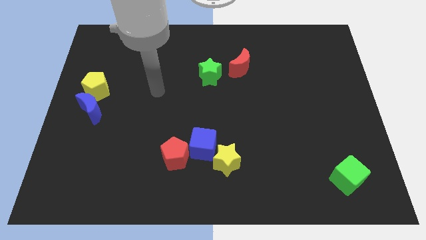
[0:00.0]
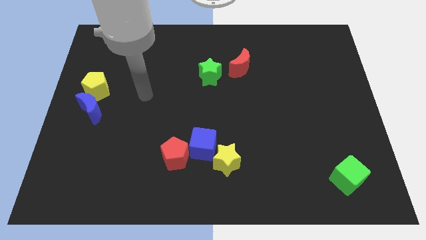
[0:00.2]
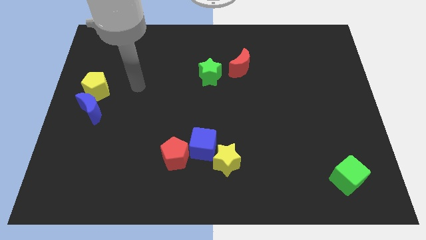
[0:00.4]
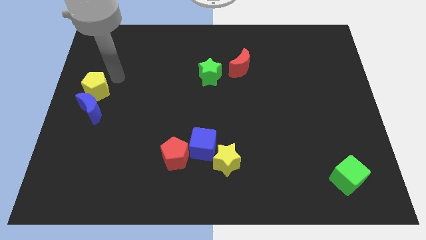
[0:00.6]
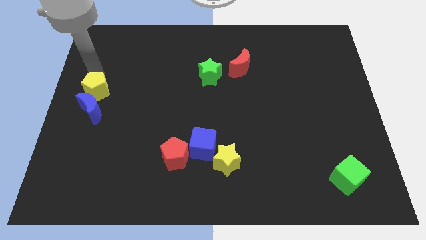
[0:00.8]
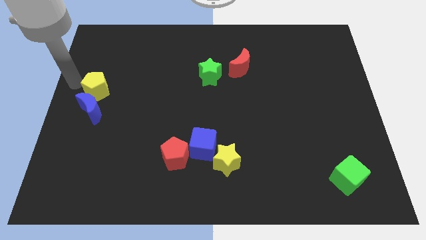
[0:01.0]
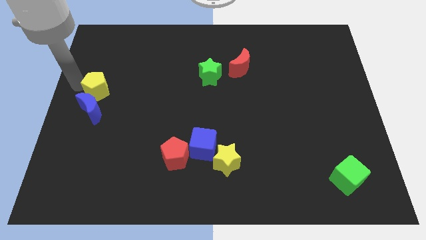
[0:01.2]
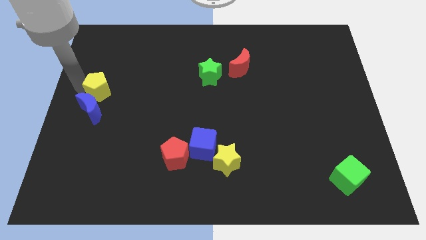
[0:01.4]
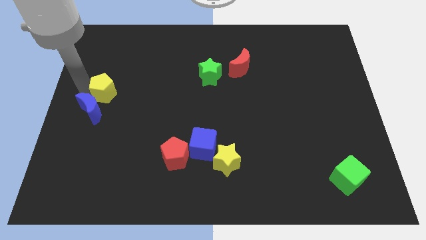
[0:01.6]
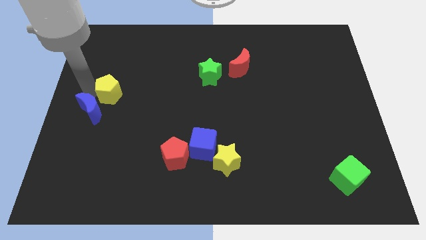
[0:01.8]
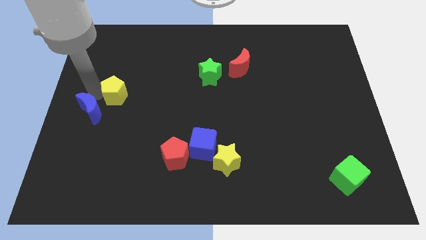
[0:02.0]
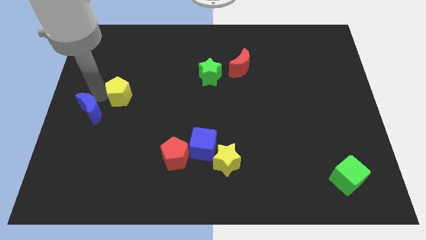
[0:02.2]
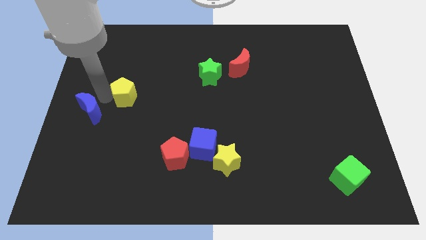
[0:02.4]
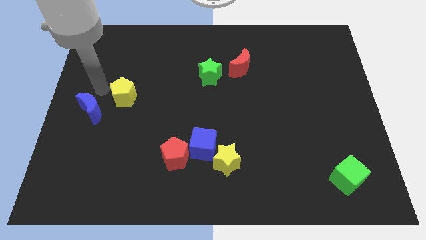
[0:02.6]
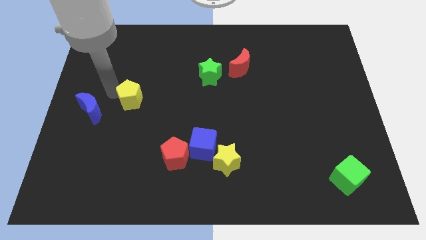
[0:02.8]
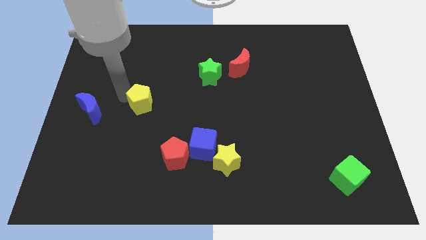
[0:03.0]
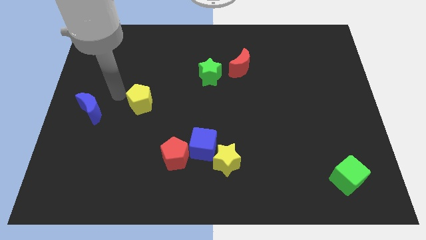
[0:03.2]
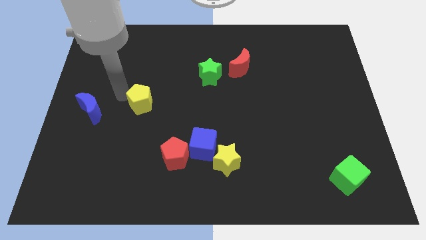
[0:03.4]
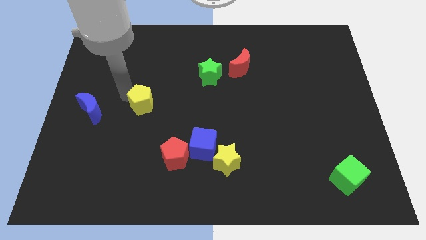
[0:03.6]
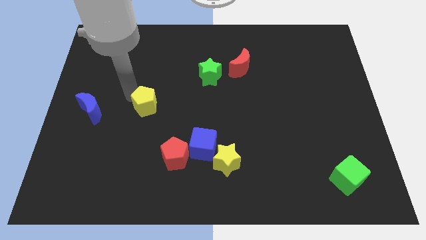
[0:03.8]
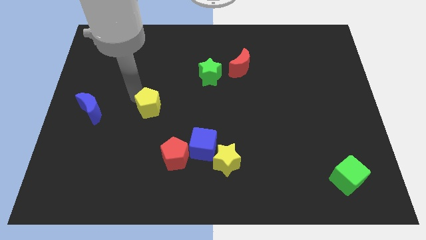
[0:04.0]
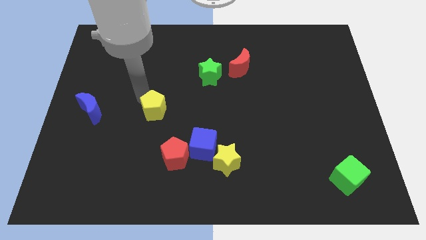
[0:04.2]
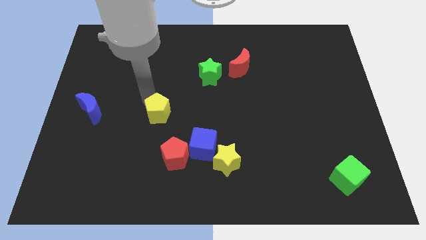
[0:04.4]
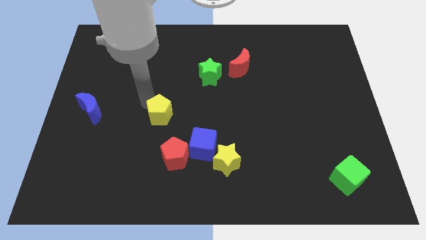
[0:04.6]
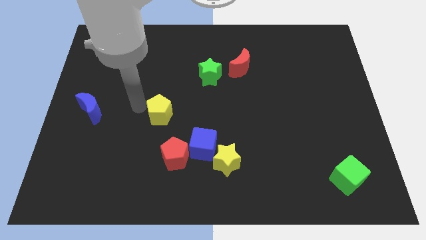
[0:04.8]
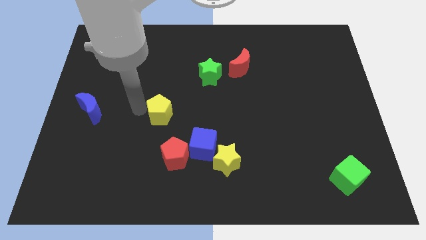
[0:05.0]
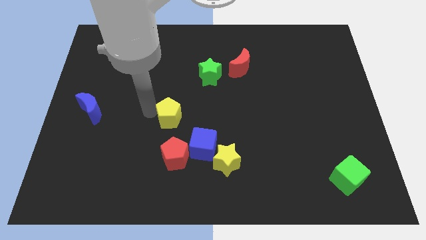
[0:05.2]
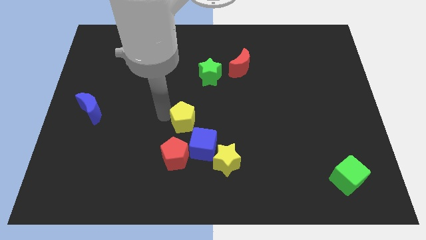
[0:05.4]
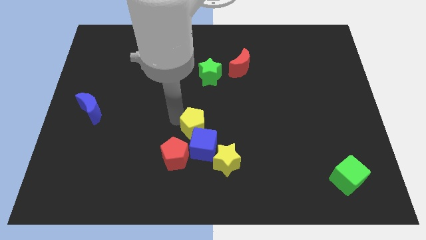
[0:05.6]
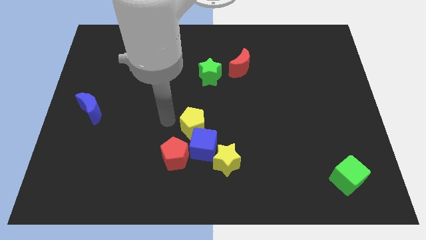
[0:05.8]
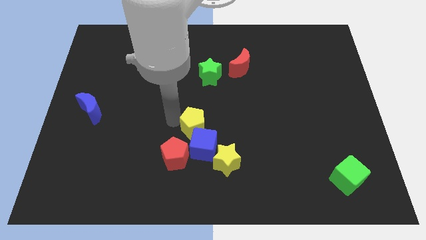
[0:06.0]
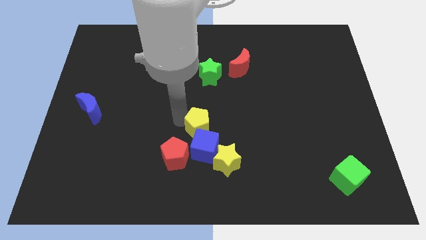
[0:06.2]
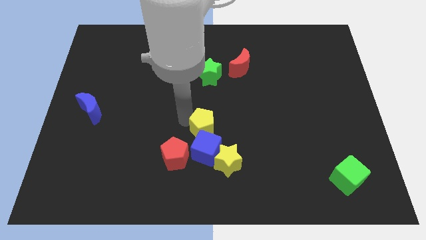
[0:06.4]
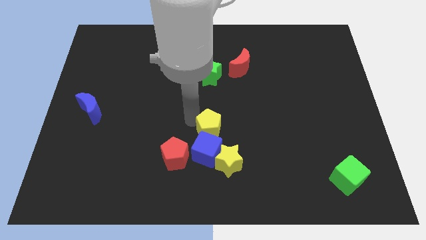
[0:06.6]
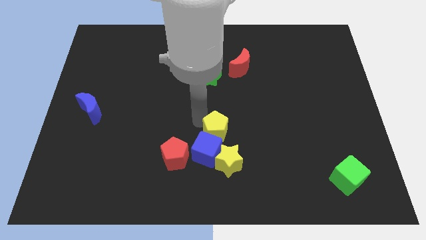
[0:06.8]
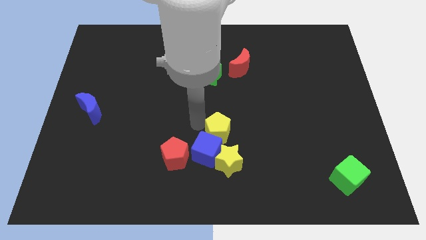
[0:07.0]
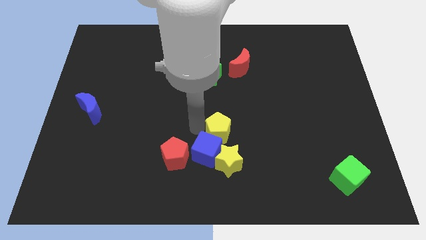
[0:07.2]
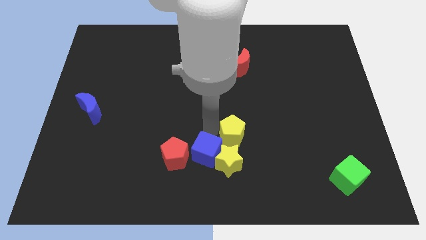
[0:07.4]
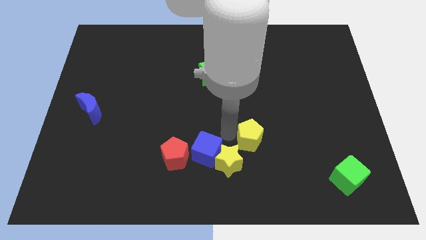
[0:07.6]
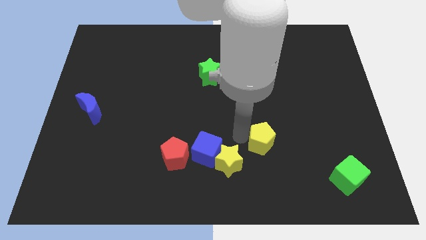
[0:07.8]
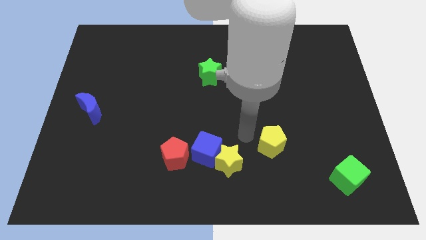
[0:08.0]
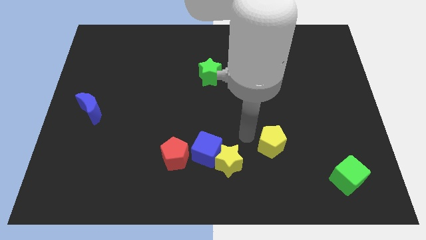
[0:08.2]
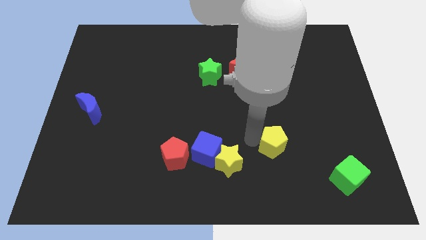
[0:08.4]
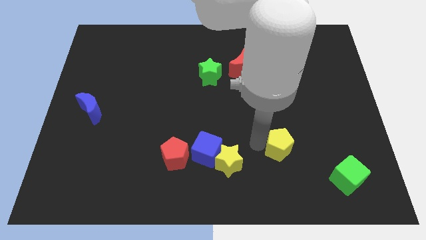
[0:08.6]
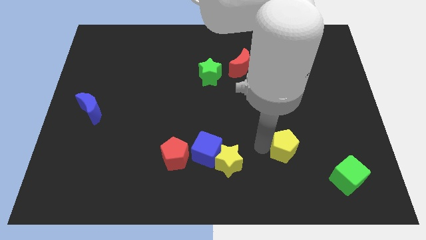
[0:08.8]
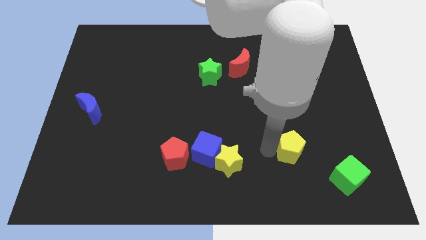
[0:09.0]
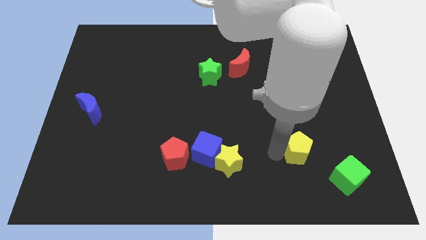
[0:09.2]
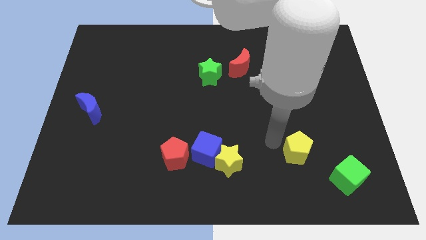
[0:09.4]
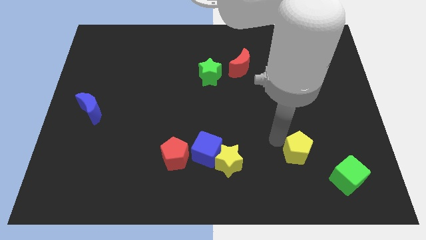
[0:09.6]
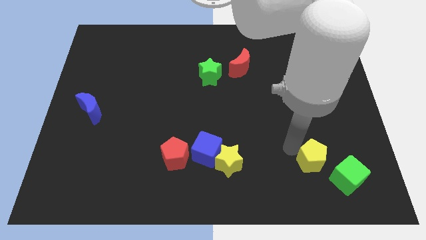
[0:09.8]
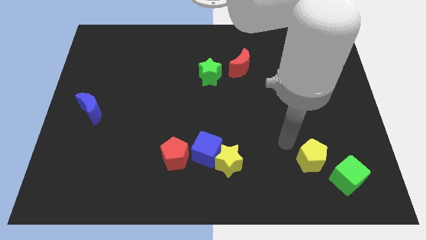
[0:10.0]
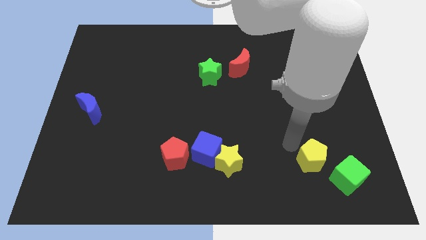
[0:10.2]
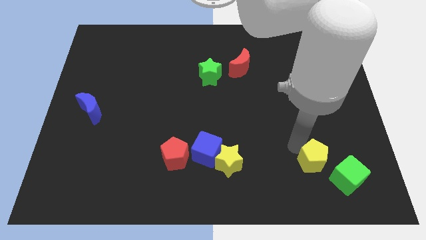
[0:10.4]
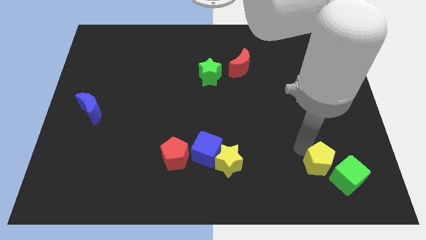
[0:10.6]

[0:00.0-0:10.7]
put the yellow pentagon to the green cube

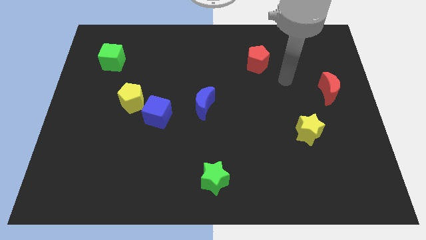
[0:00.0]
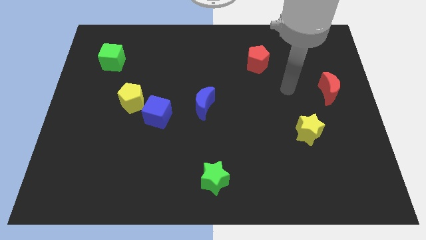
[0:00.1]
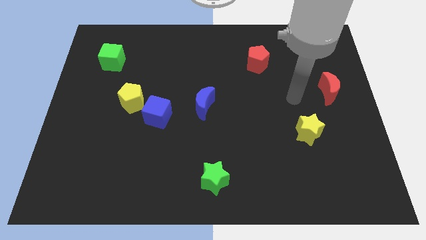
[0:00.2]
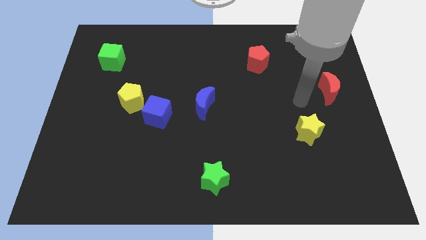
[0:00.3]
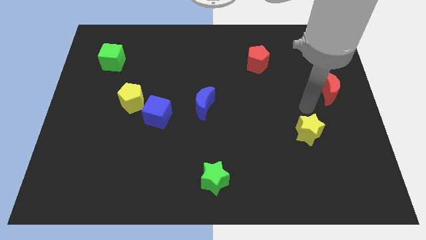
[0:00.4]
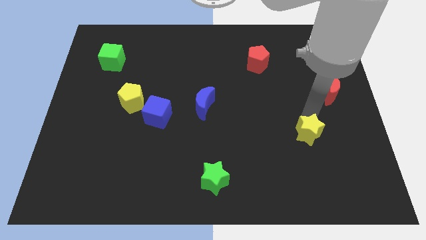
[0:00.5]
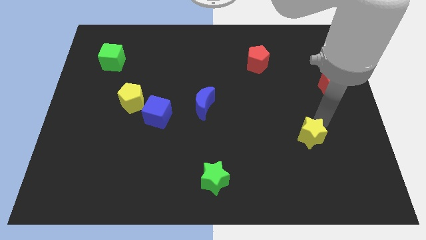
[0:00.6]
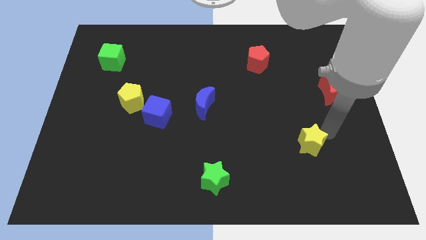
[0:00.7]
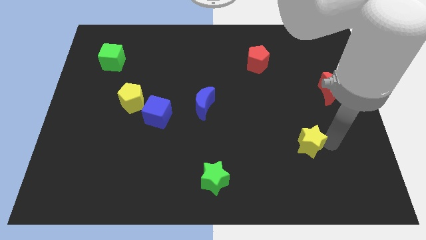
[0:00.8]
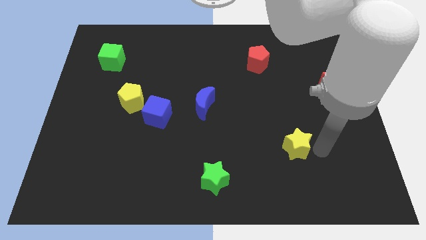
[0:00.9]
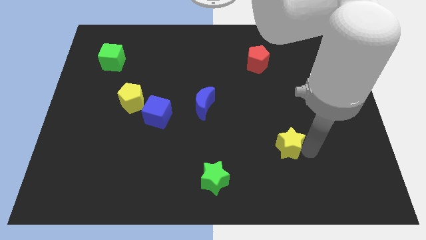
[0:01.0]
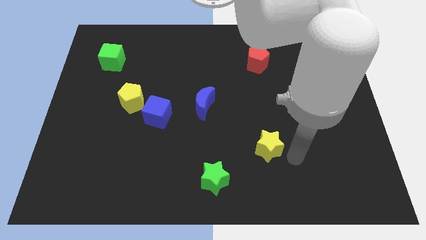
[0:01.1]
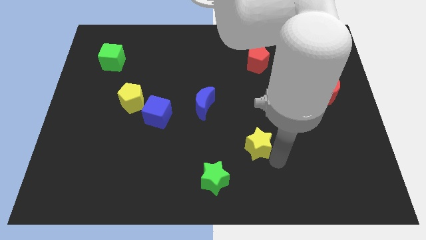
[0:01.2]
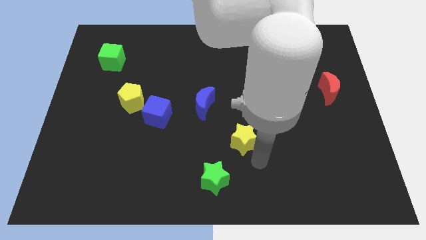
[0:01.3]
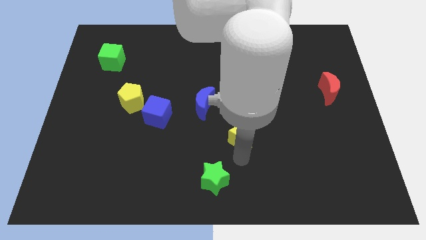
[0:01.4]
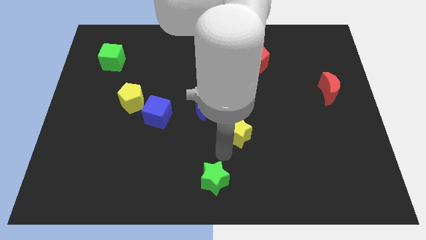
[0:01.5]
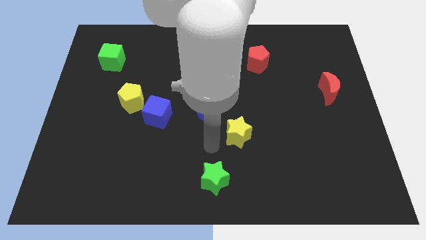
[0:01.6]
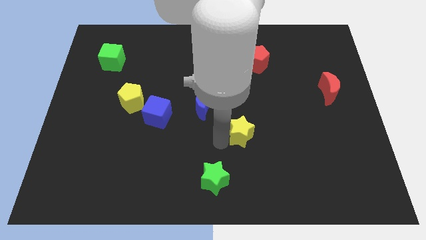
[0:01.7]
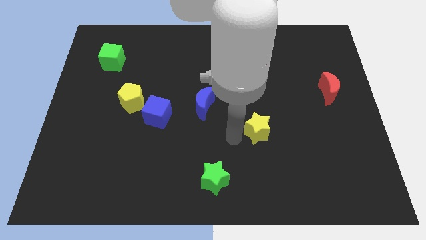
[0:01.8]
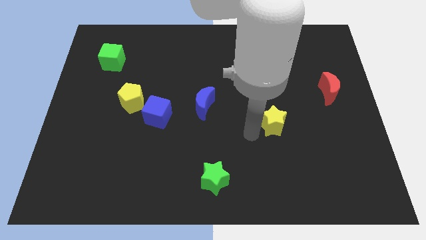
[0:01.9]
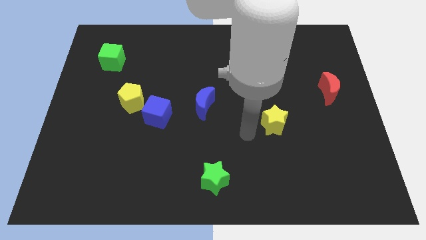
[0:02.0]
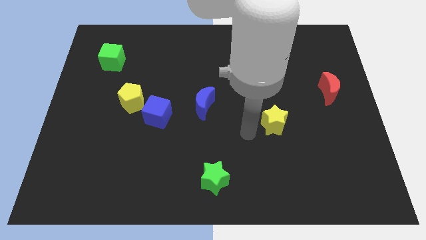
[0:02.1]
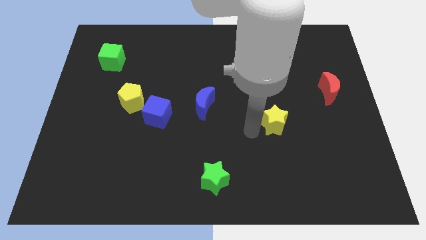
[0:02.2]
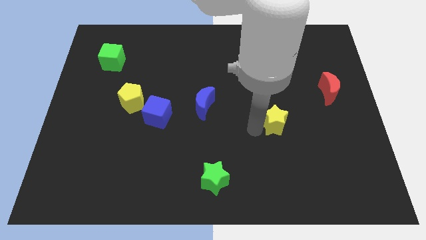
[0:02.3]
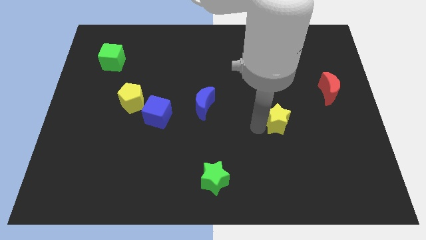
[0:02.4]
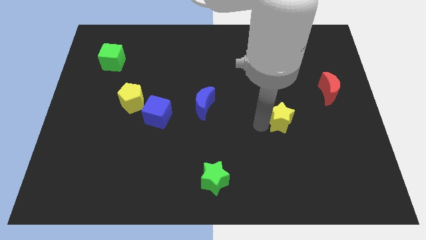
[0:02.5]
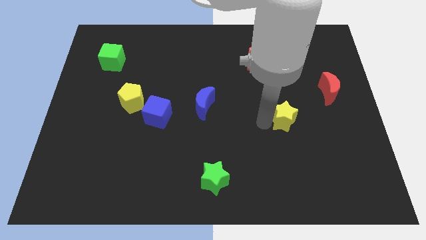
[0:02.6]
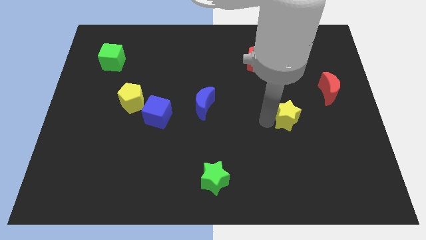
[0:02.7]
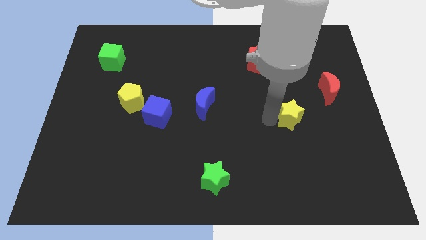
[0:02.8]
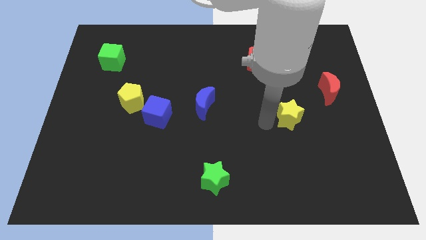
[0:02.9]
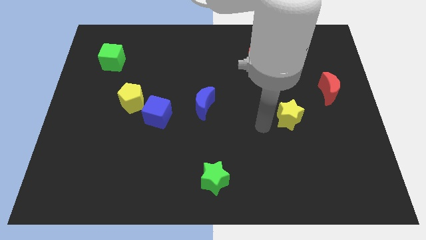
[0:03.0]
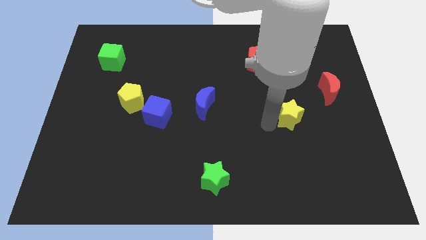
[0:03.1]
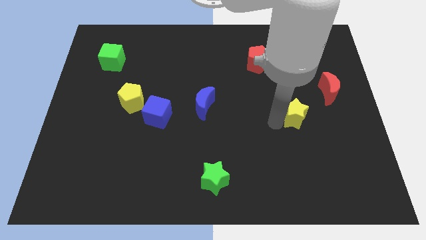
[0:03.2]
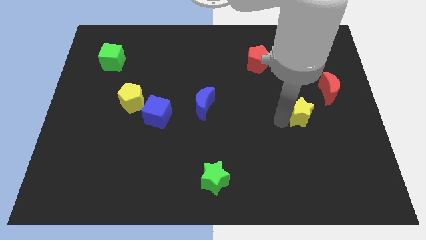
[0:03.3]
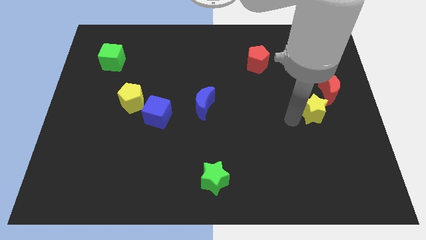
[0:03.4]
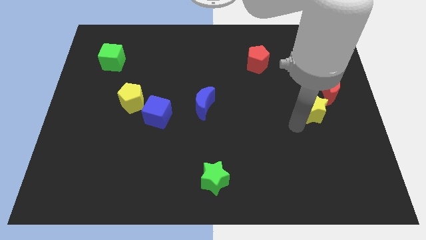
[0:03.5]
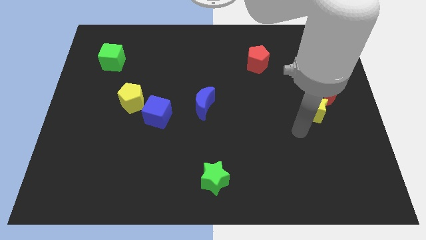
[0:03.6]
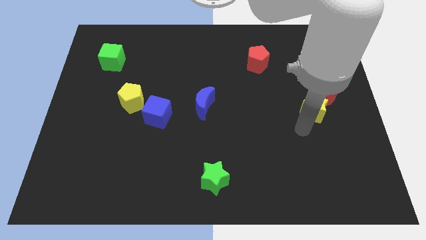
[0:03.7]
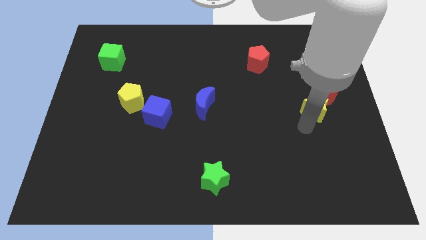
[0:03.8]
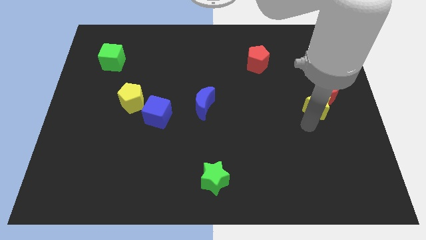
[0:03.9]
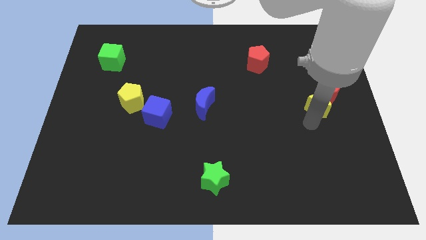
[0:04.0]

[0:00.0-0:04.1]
put the yellow star towards the red moon
